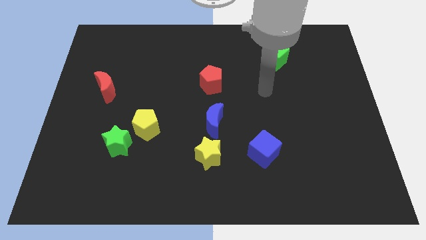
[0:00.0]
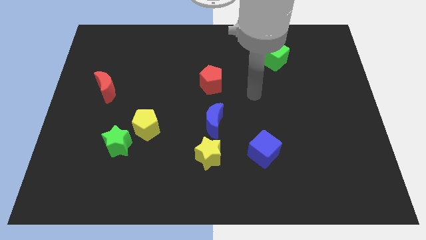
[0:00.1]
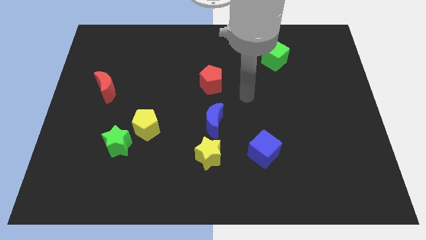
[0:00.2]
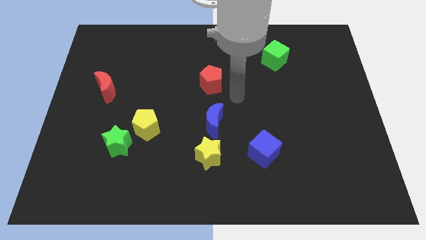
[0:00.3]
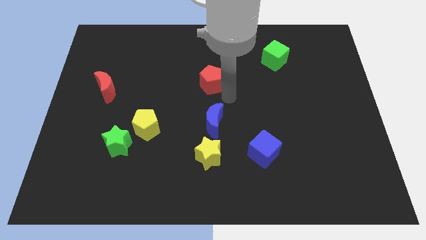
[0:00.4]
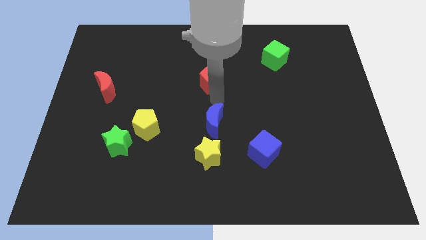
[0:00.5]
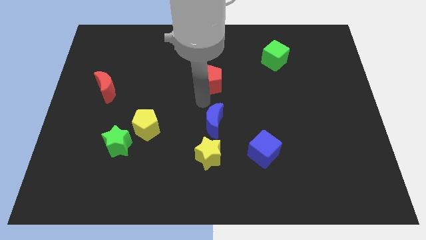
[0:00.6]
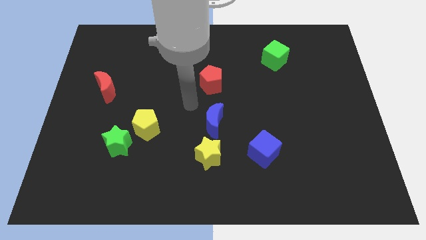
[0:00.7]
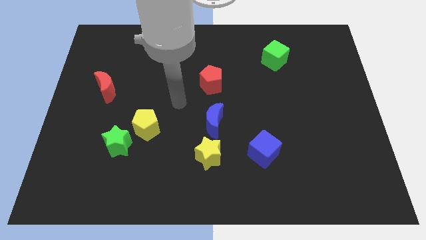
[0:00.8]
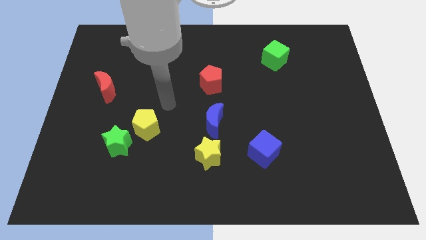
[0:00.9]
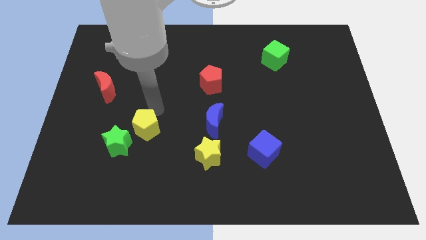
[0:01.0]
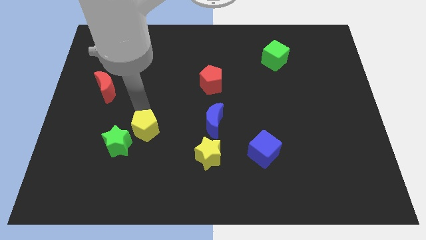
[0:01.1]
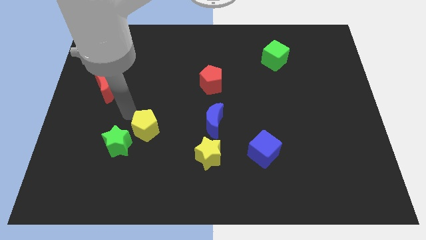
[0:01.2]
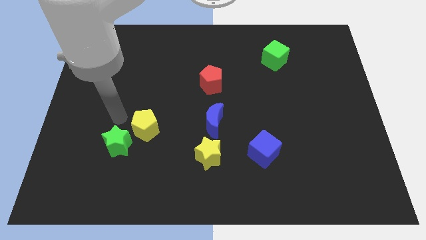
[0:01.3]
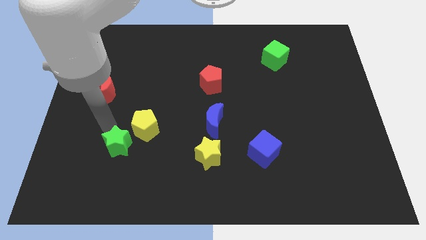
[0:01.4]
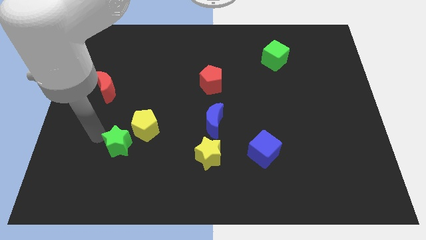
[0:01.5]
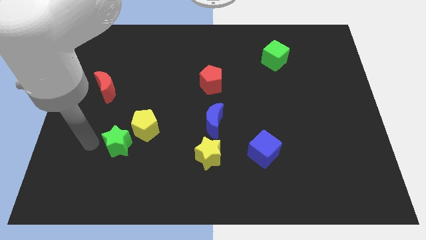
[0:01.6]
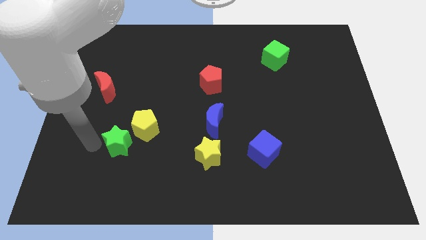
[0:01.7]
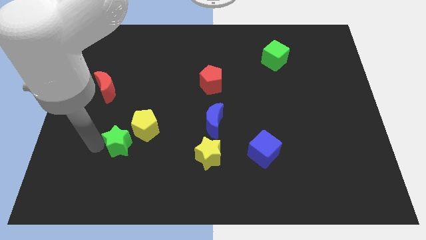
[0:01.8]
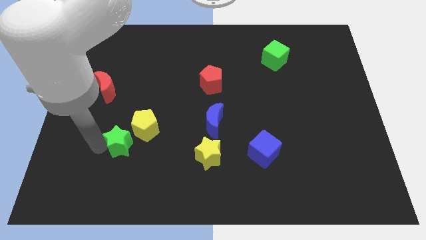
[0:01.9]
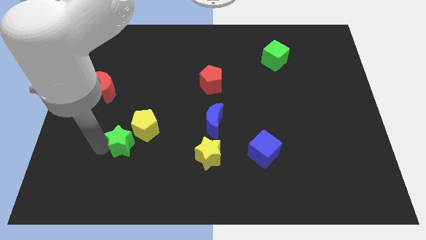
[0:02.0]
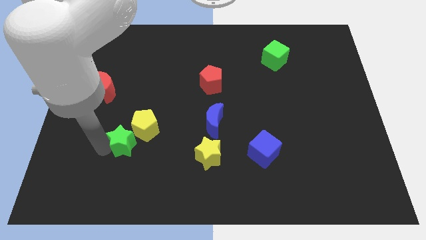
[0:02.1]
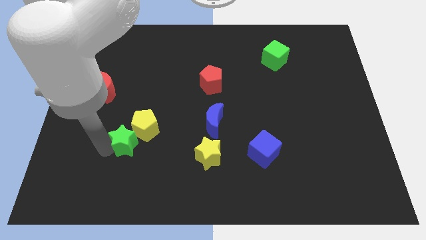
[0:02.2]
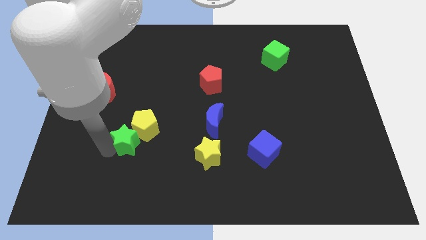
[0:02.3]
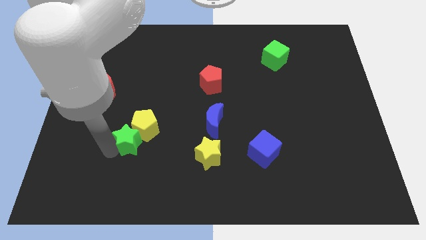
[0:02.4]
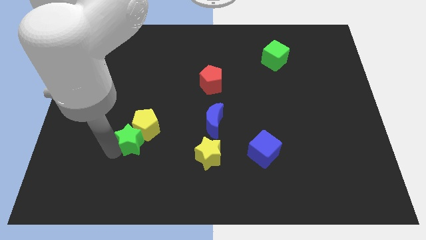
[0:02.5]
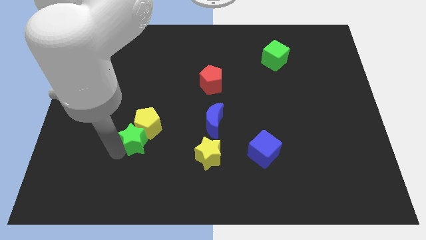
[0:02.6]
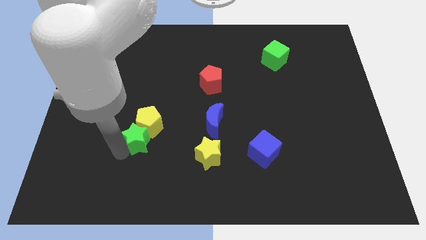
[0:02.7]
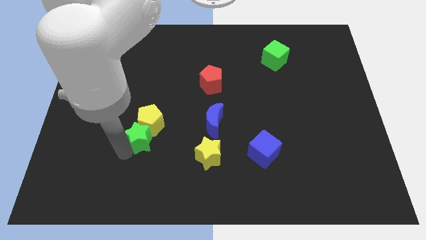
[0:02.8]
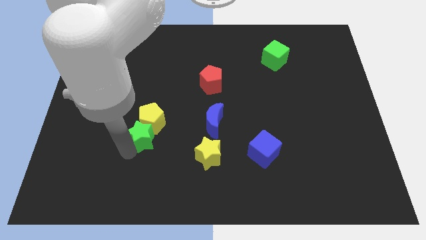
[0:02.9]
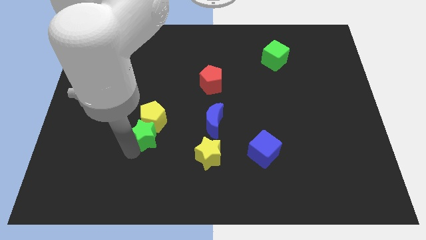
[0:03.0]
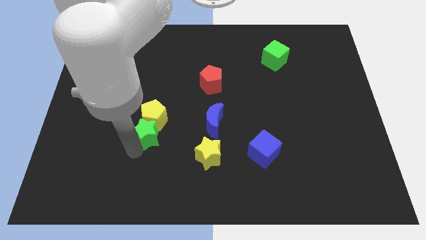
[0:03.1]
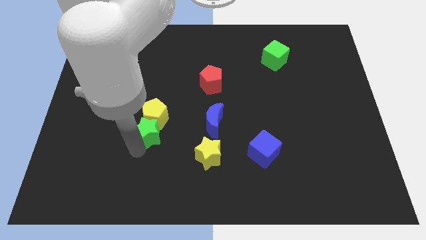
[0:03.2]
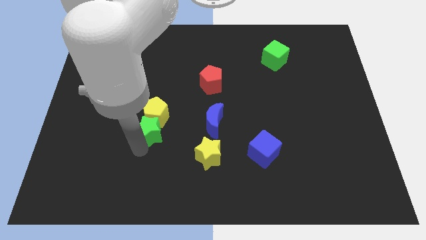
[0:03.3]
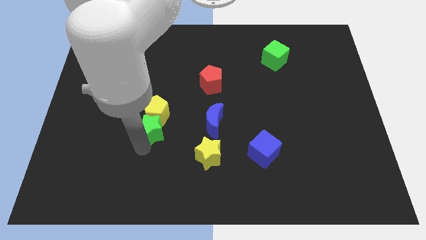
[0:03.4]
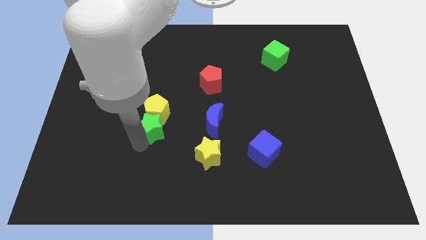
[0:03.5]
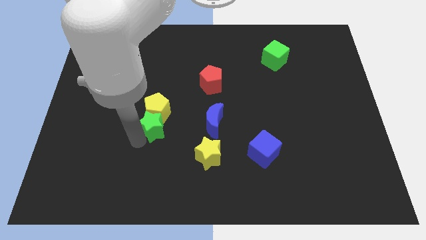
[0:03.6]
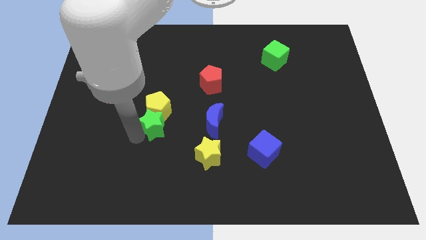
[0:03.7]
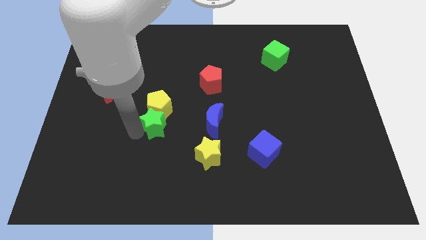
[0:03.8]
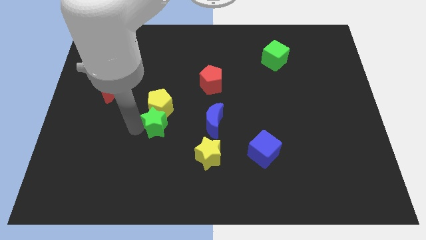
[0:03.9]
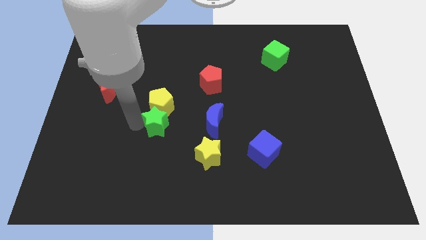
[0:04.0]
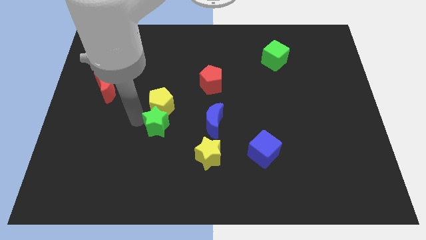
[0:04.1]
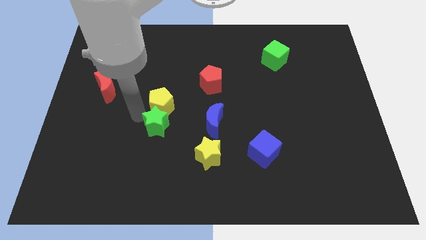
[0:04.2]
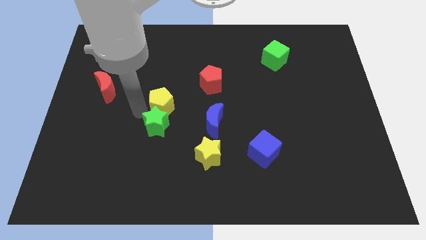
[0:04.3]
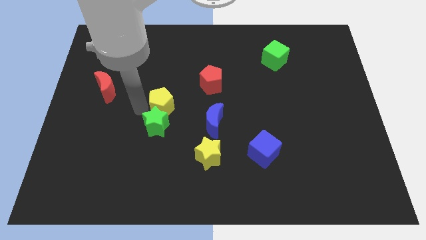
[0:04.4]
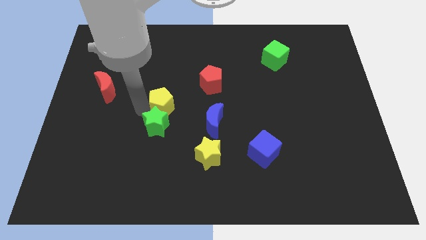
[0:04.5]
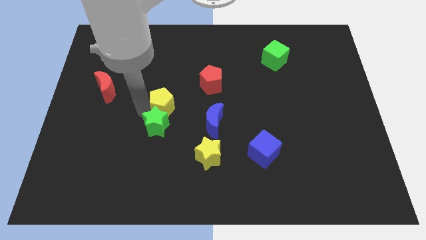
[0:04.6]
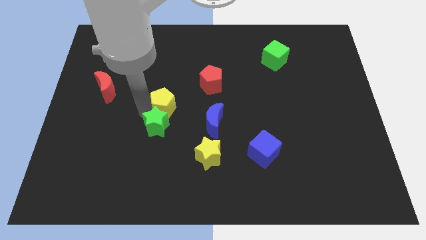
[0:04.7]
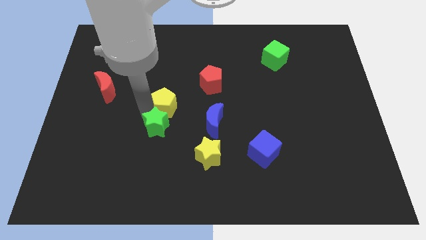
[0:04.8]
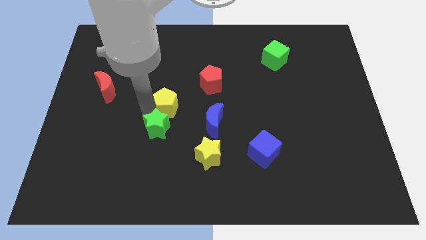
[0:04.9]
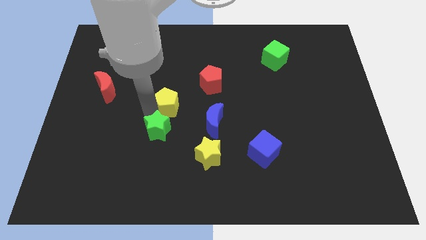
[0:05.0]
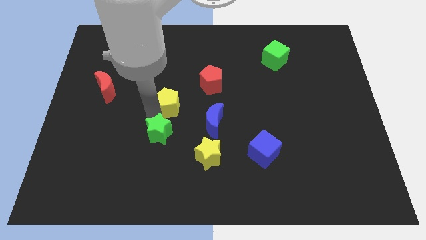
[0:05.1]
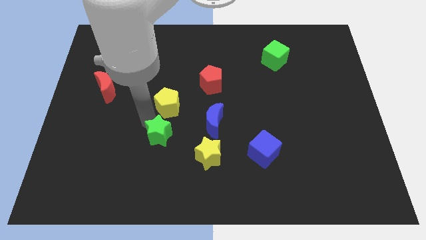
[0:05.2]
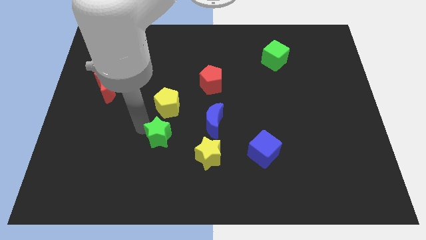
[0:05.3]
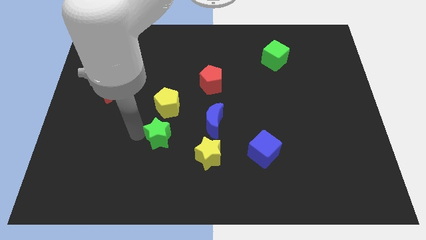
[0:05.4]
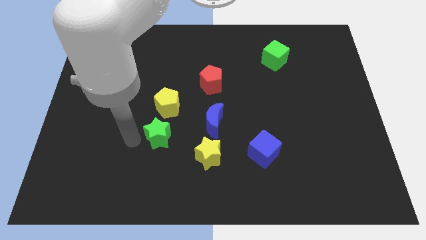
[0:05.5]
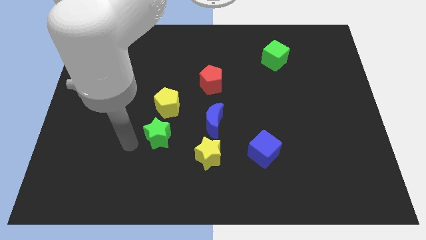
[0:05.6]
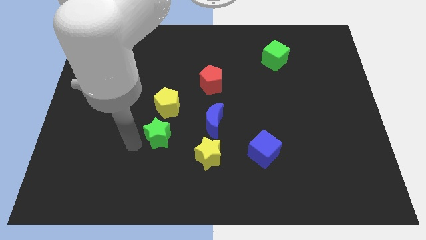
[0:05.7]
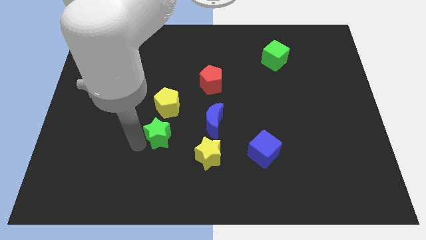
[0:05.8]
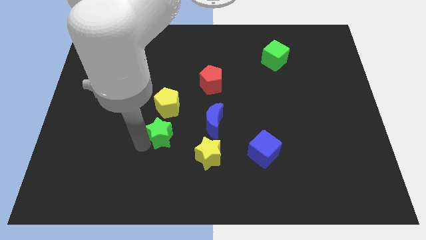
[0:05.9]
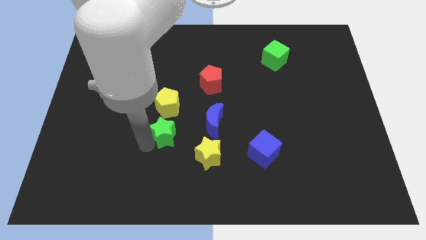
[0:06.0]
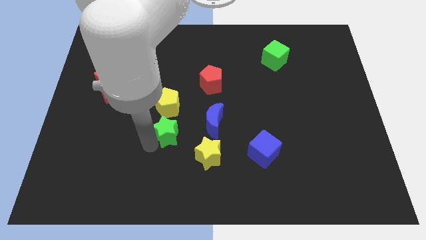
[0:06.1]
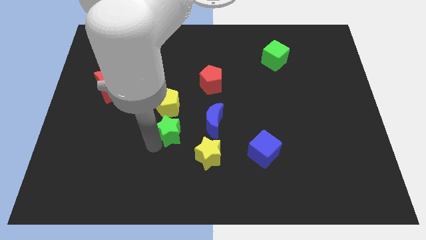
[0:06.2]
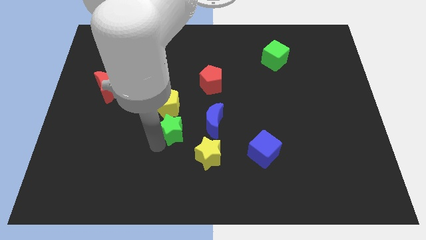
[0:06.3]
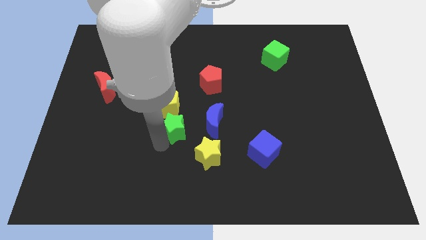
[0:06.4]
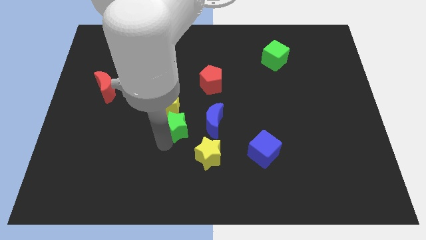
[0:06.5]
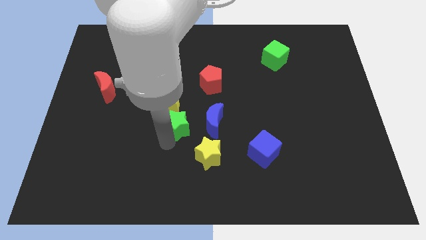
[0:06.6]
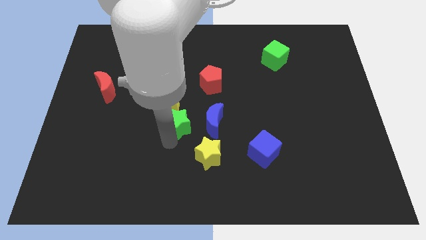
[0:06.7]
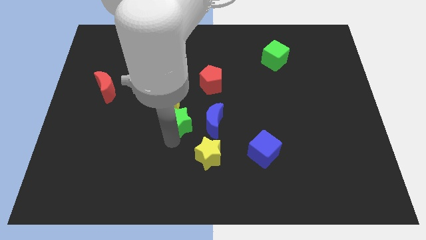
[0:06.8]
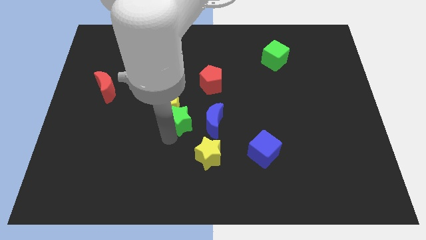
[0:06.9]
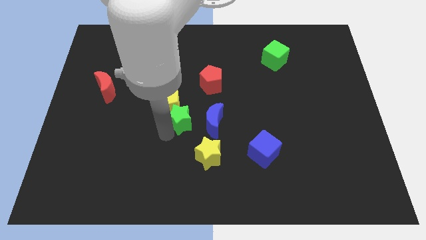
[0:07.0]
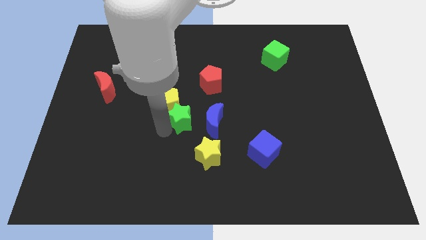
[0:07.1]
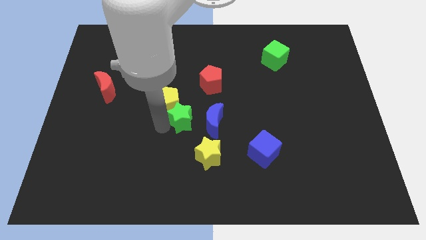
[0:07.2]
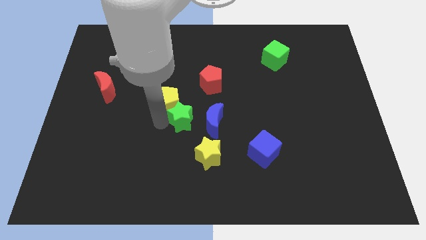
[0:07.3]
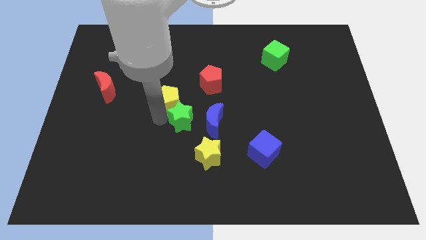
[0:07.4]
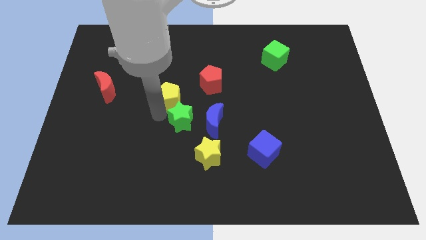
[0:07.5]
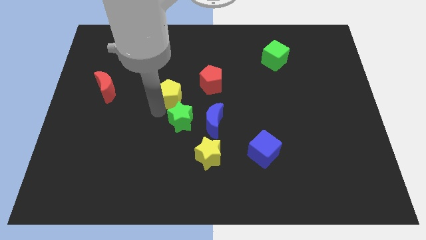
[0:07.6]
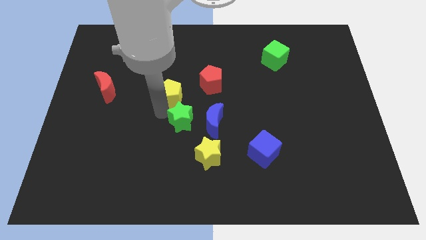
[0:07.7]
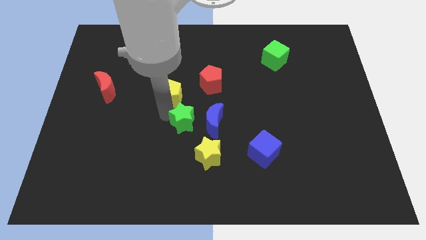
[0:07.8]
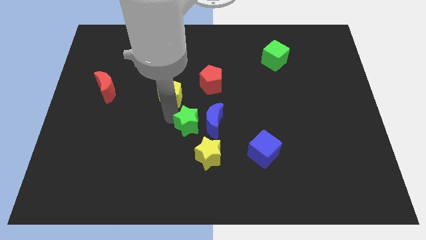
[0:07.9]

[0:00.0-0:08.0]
move the green star to the blue moon
